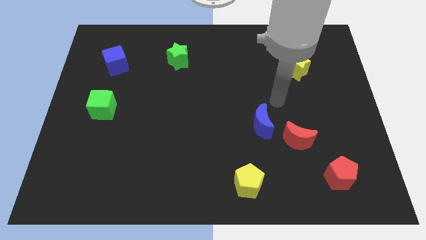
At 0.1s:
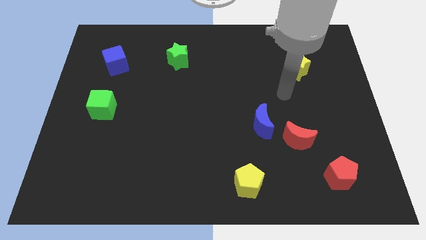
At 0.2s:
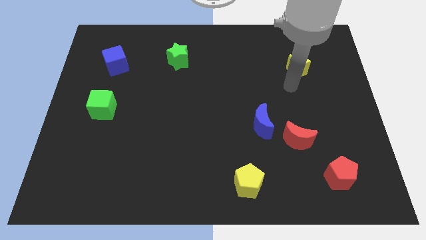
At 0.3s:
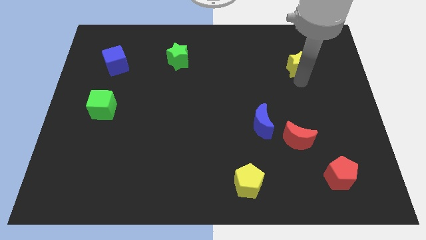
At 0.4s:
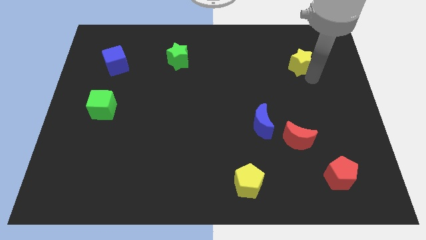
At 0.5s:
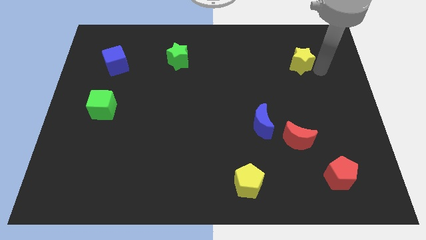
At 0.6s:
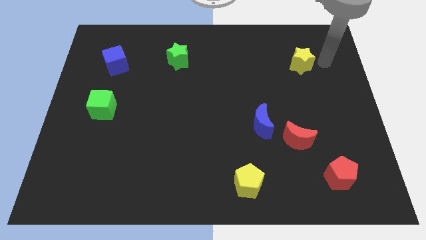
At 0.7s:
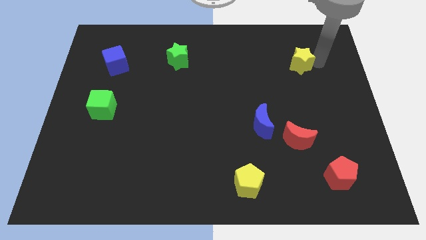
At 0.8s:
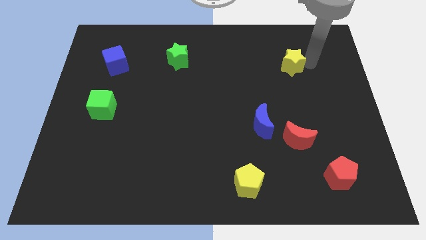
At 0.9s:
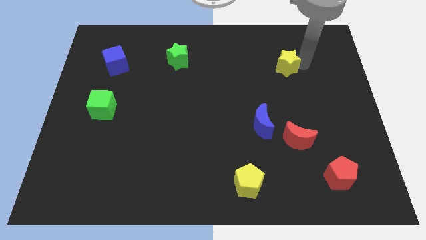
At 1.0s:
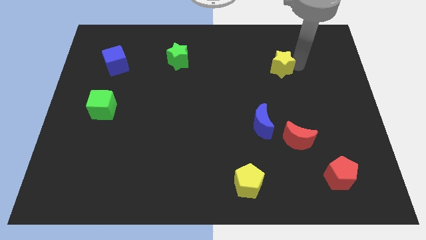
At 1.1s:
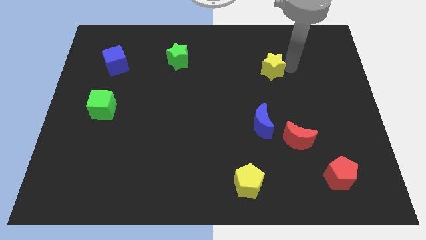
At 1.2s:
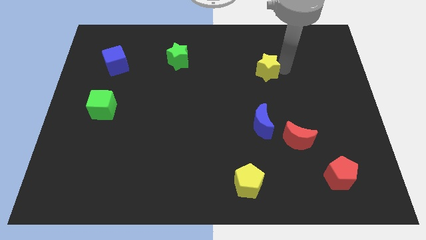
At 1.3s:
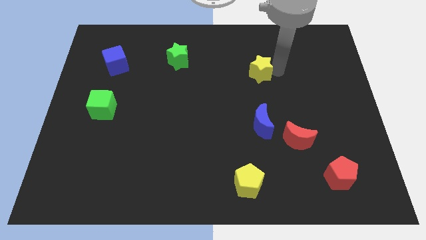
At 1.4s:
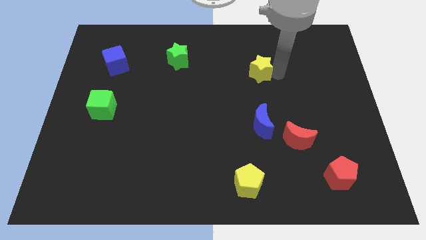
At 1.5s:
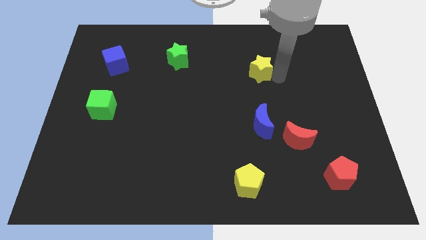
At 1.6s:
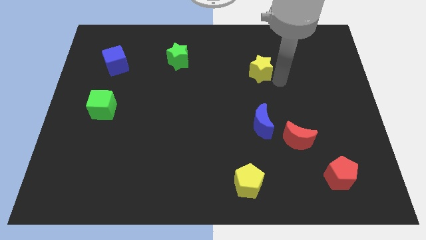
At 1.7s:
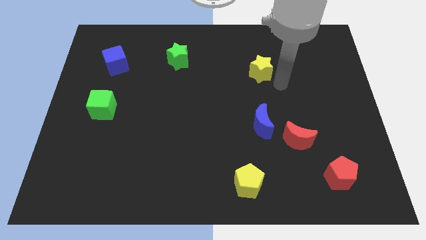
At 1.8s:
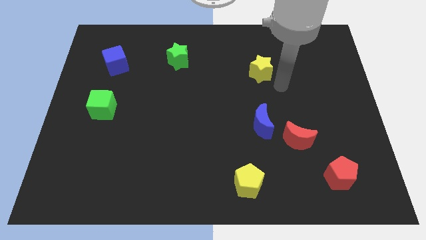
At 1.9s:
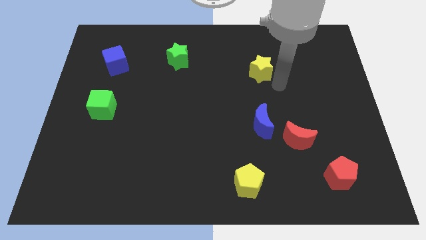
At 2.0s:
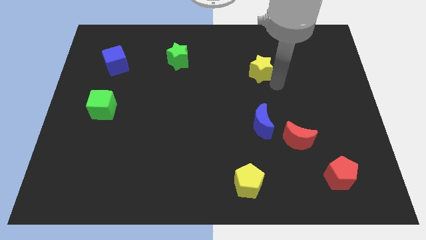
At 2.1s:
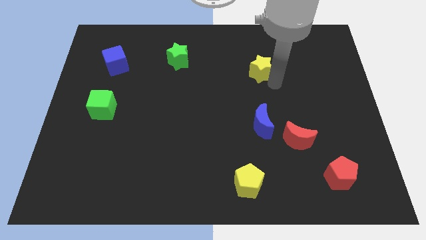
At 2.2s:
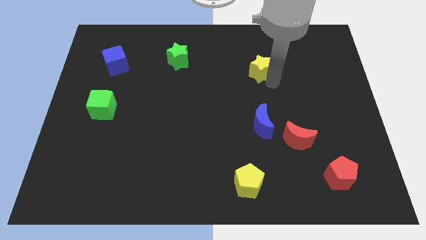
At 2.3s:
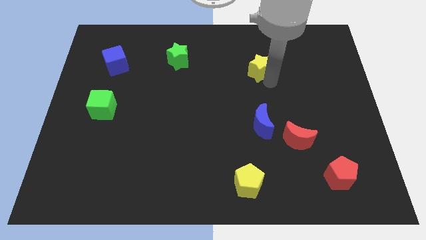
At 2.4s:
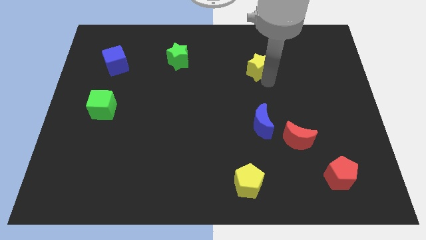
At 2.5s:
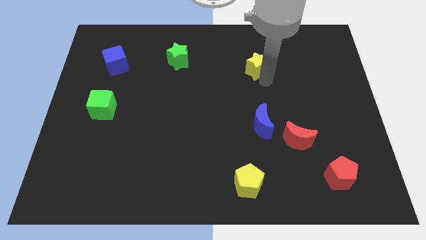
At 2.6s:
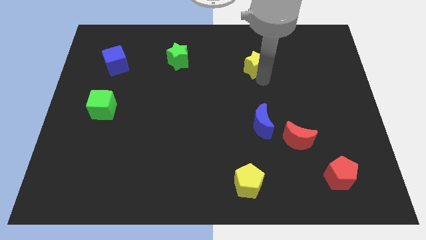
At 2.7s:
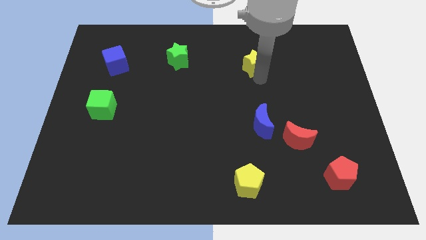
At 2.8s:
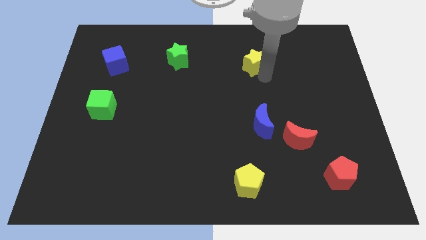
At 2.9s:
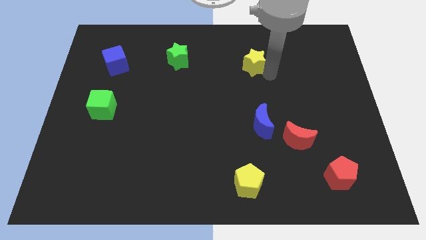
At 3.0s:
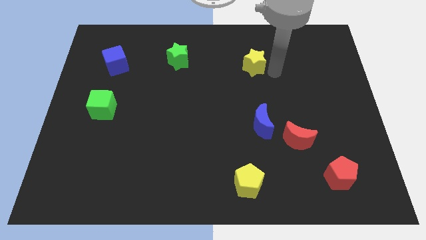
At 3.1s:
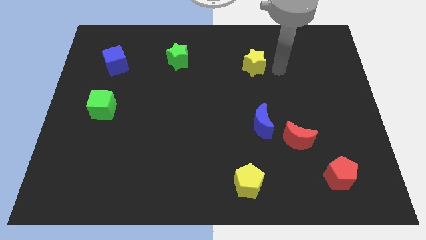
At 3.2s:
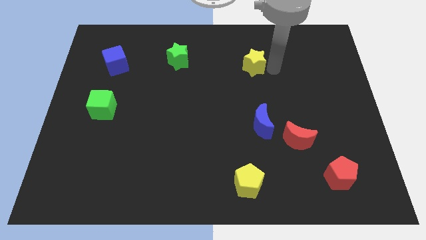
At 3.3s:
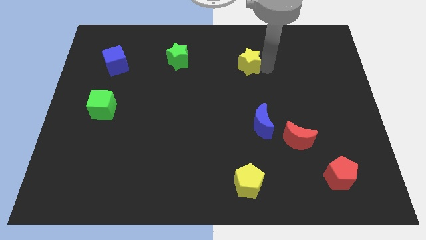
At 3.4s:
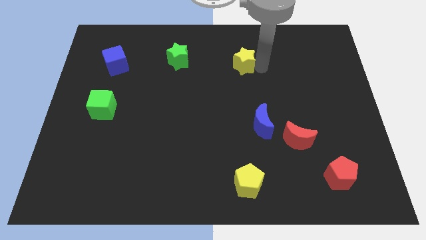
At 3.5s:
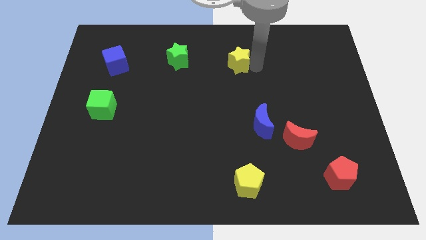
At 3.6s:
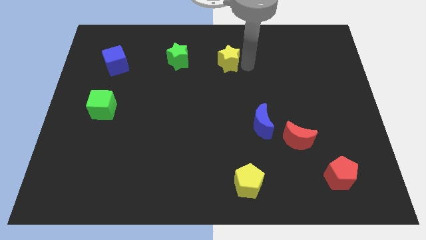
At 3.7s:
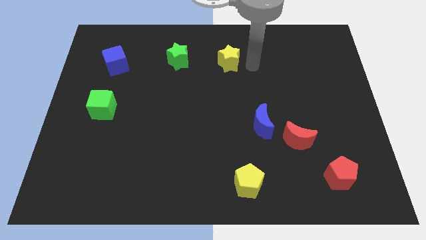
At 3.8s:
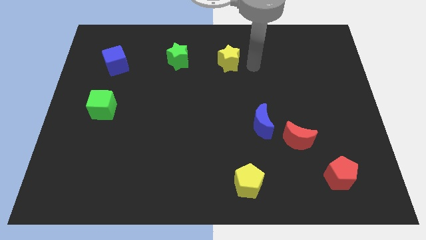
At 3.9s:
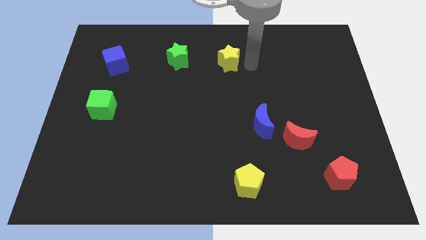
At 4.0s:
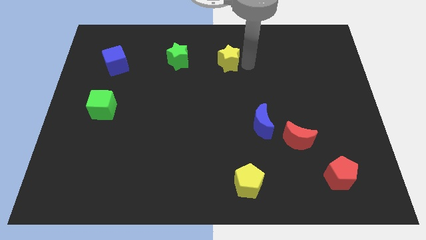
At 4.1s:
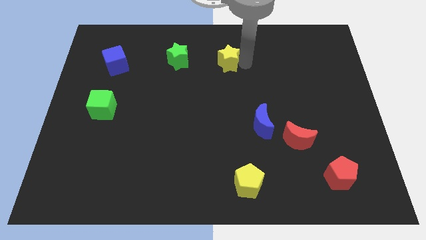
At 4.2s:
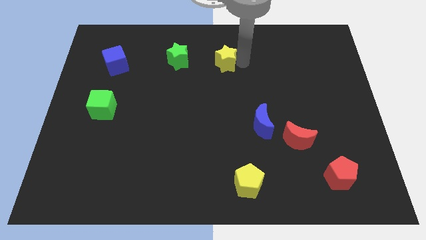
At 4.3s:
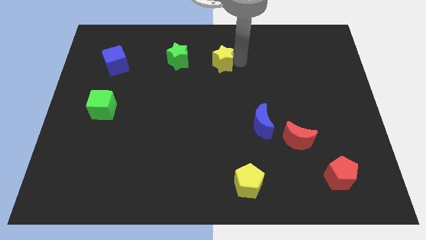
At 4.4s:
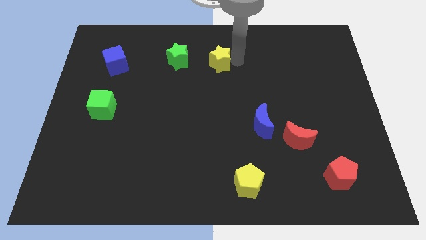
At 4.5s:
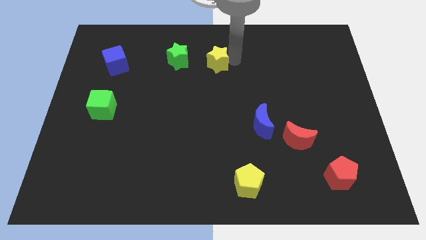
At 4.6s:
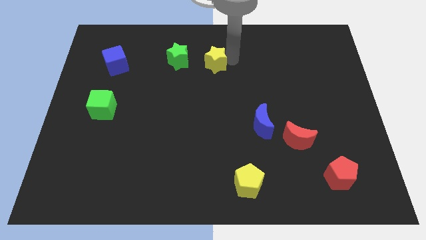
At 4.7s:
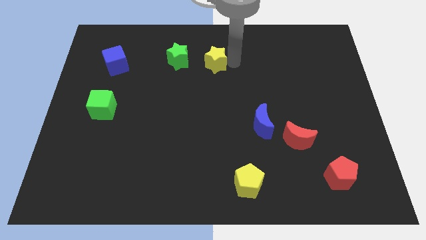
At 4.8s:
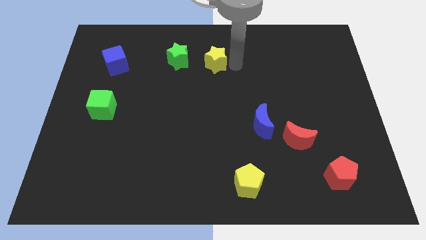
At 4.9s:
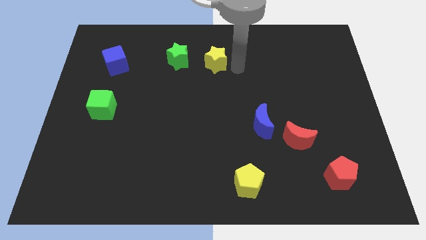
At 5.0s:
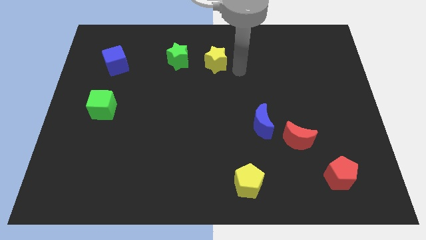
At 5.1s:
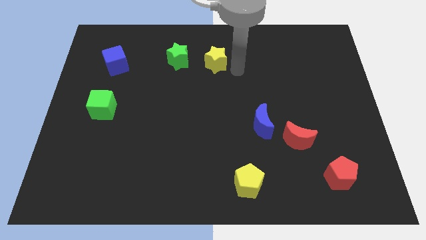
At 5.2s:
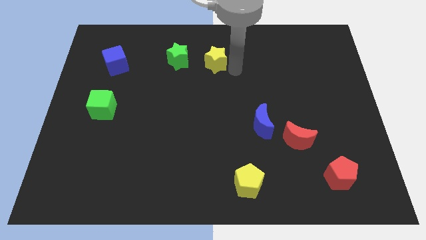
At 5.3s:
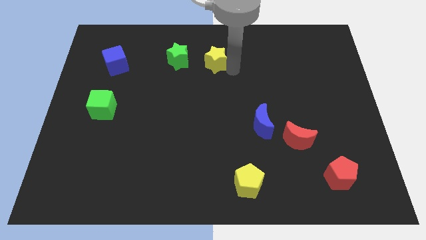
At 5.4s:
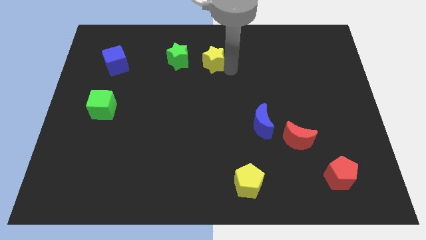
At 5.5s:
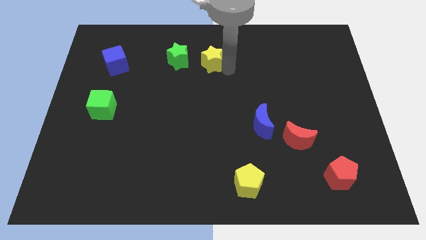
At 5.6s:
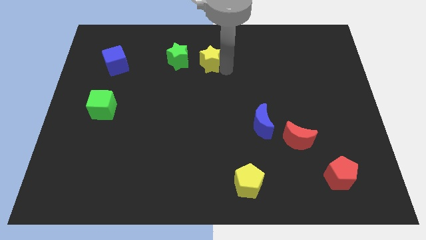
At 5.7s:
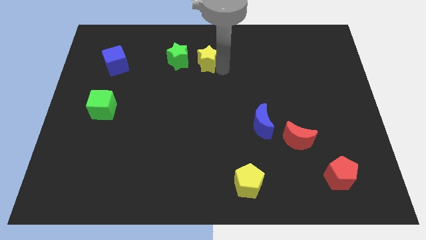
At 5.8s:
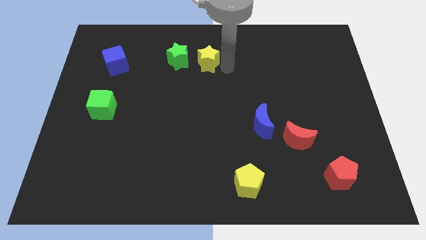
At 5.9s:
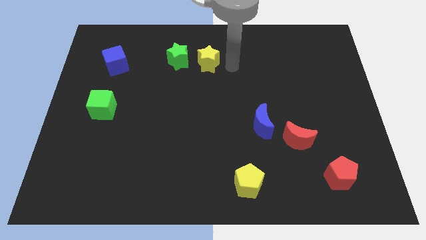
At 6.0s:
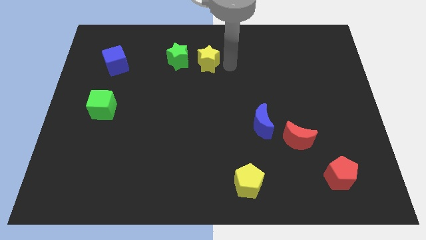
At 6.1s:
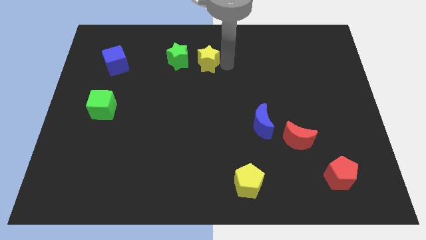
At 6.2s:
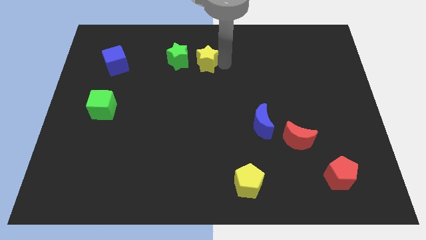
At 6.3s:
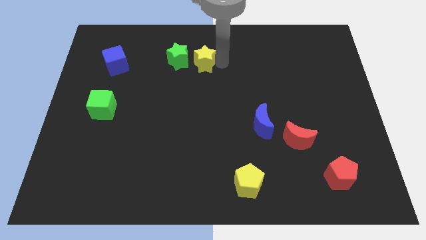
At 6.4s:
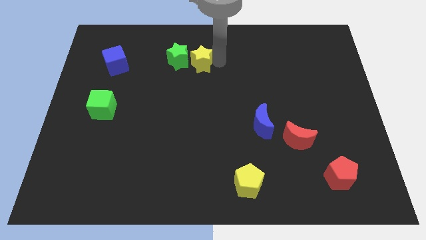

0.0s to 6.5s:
put the yellow star next to the green star
